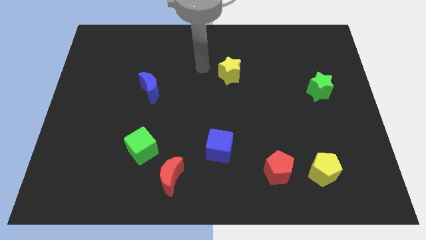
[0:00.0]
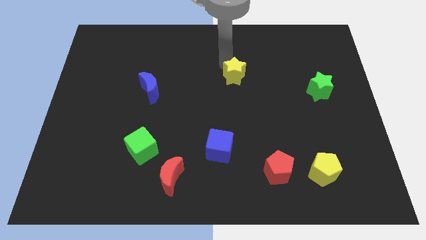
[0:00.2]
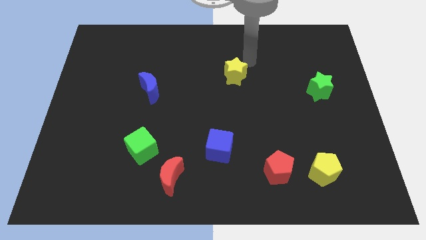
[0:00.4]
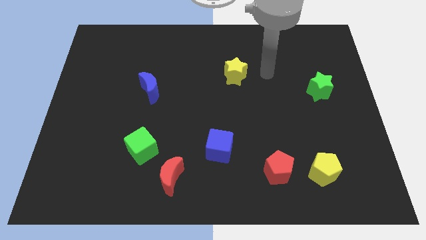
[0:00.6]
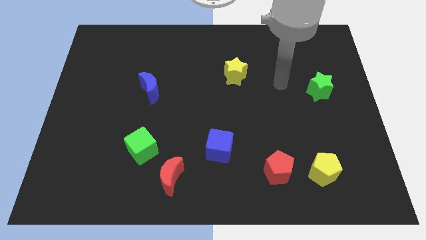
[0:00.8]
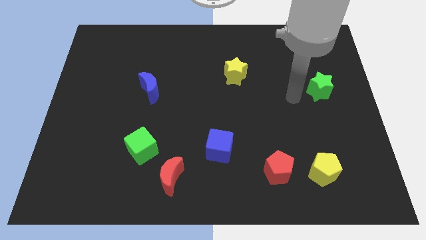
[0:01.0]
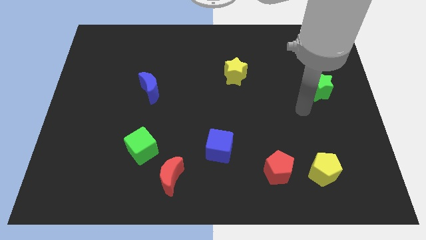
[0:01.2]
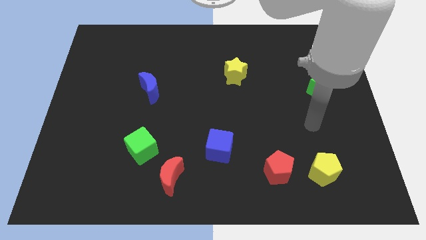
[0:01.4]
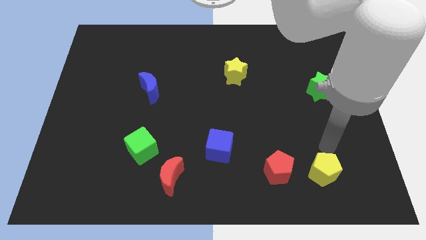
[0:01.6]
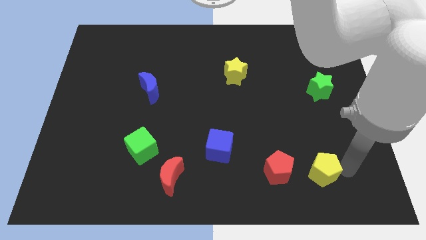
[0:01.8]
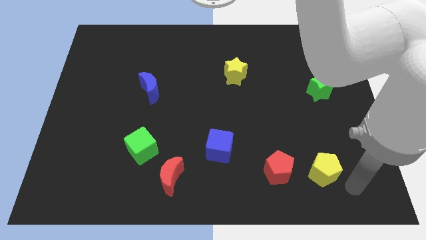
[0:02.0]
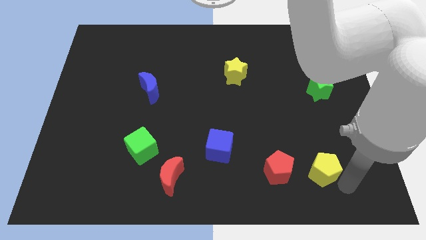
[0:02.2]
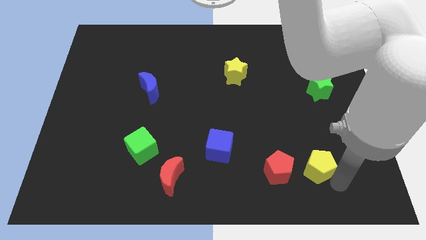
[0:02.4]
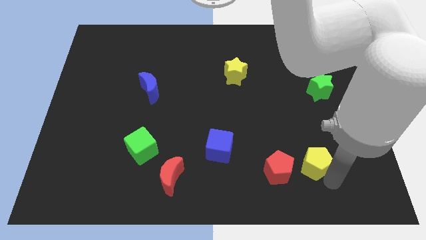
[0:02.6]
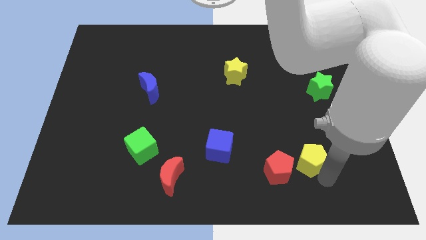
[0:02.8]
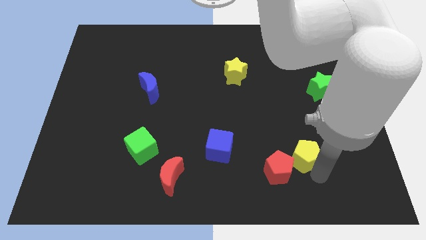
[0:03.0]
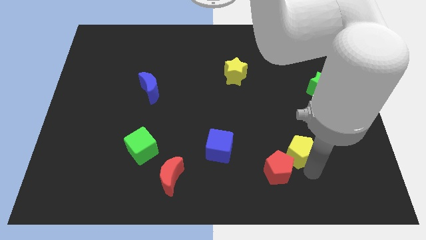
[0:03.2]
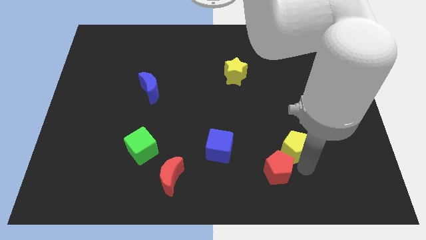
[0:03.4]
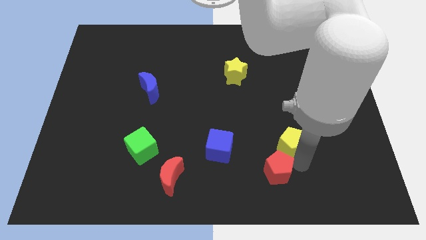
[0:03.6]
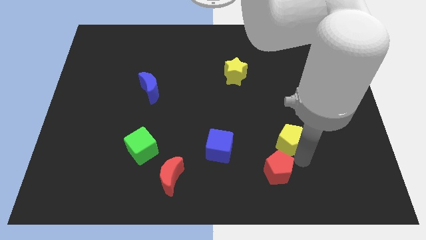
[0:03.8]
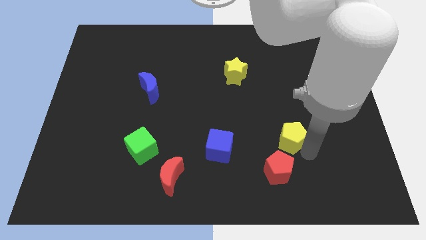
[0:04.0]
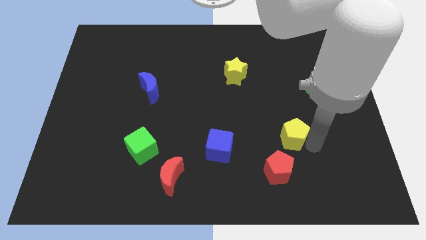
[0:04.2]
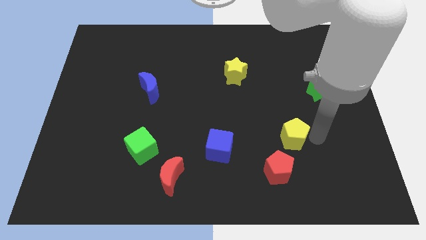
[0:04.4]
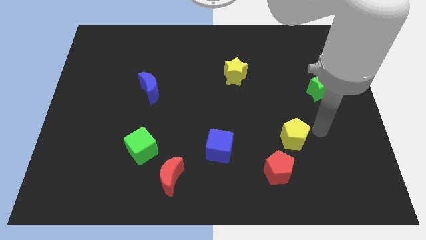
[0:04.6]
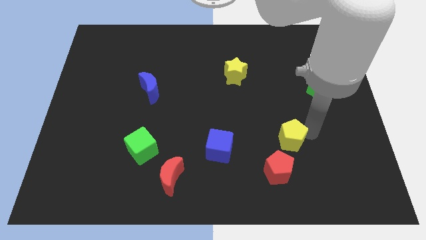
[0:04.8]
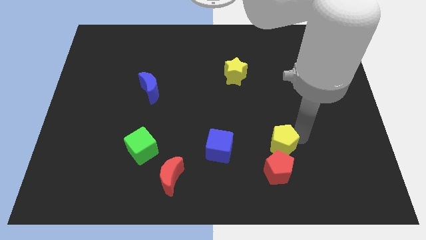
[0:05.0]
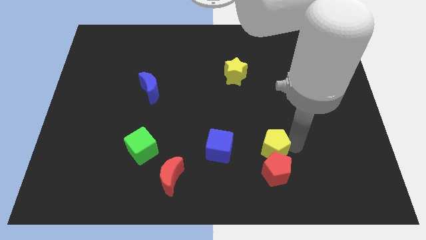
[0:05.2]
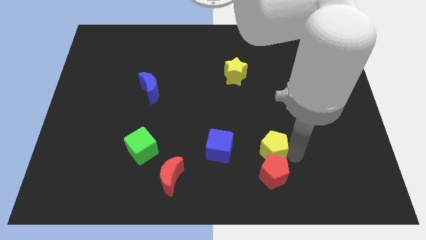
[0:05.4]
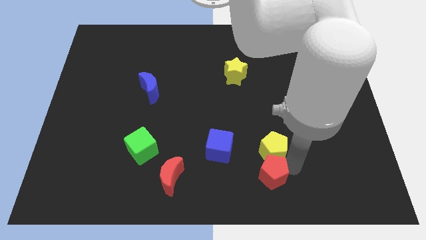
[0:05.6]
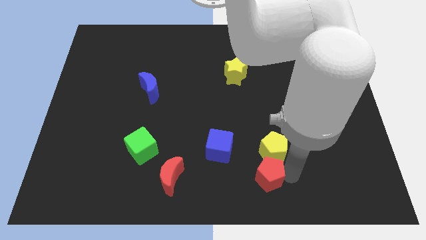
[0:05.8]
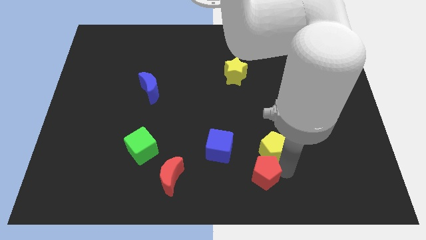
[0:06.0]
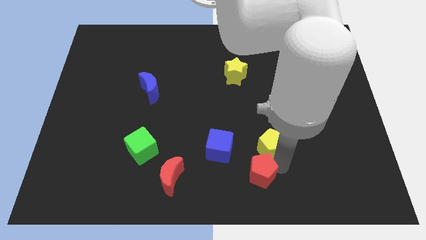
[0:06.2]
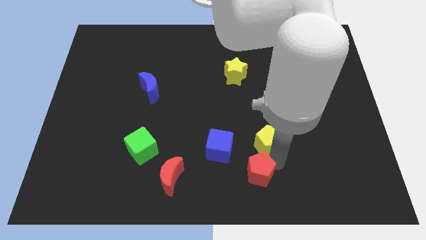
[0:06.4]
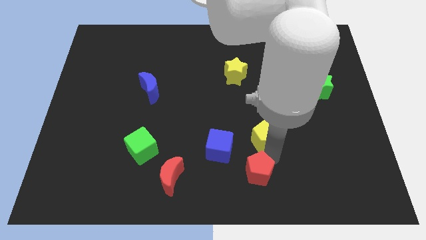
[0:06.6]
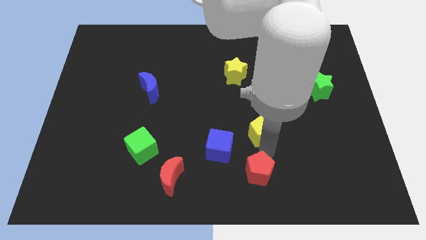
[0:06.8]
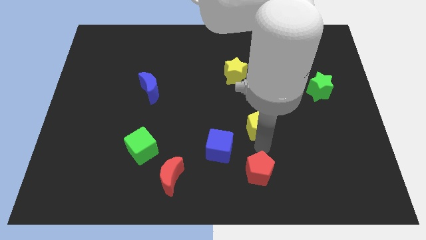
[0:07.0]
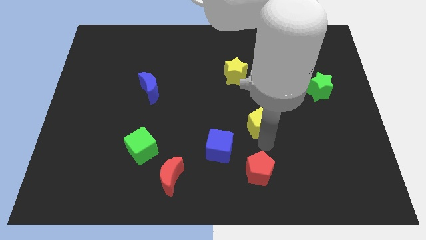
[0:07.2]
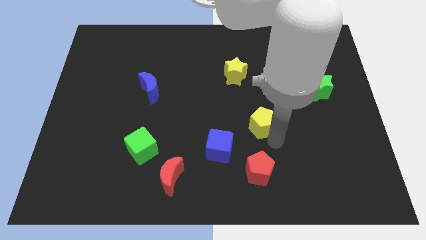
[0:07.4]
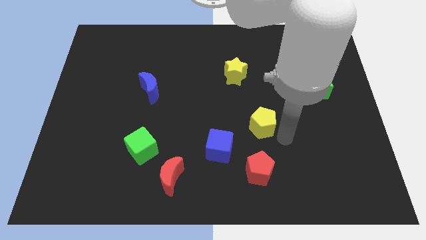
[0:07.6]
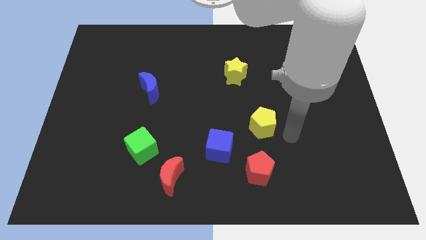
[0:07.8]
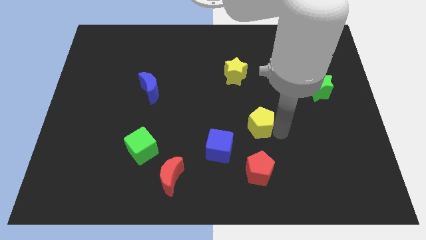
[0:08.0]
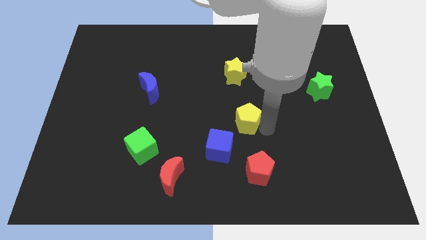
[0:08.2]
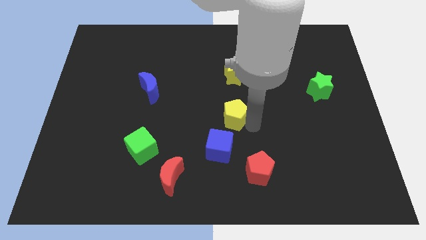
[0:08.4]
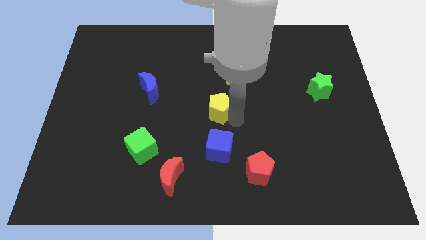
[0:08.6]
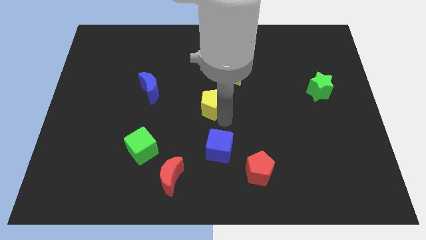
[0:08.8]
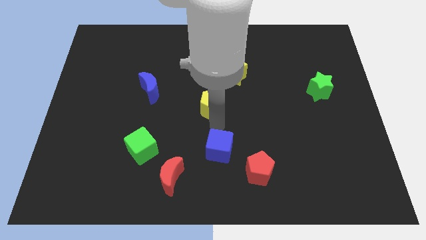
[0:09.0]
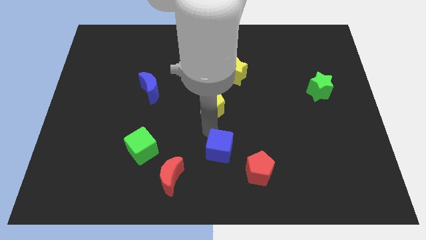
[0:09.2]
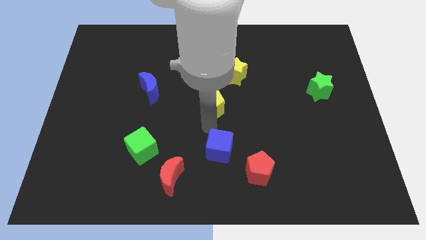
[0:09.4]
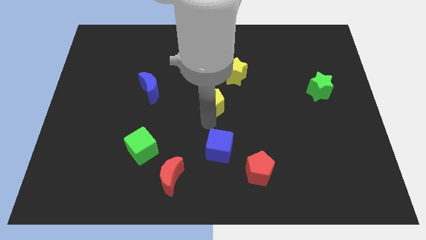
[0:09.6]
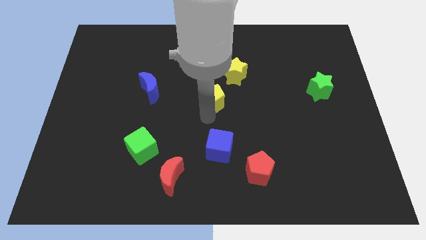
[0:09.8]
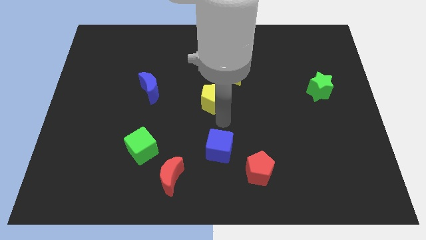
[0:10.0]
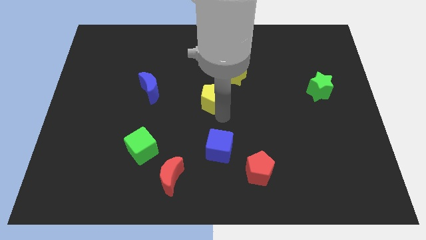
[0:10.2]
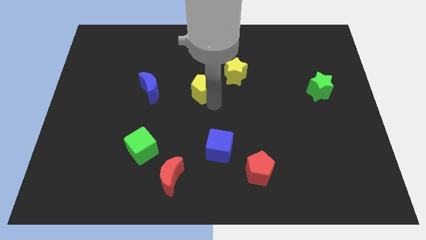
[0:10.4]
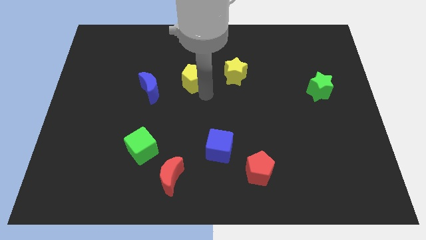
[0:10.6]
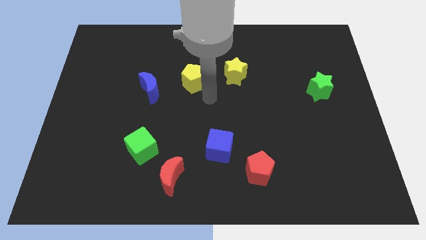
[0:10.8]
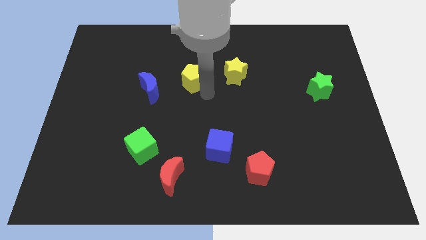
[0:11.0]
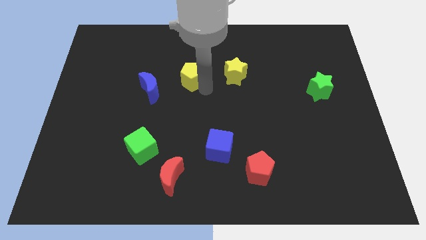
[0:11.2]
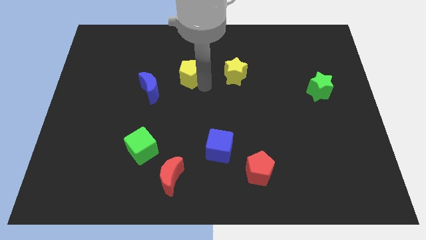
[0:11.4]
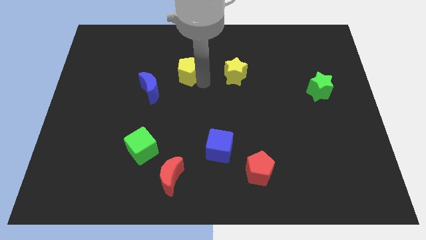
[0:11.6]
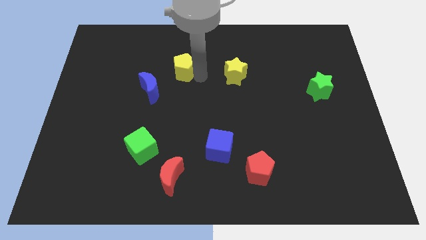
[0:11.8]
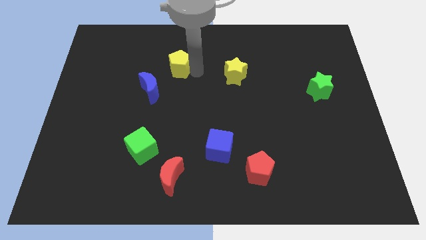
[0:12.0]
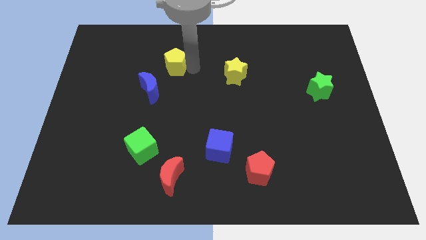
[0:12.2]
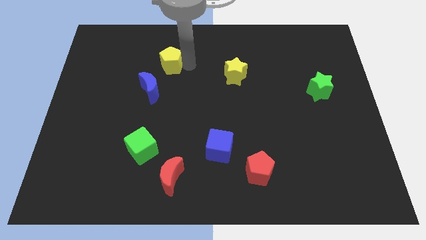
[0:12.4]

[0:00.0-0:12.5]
move the yellow pentagon to the top of the blue moon

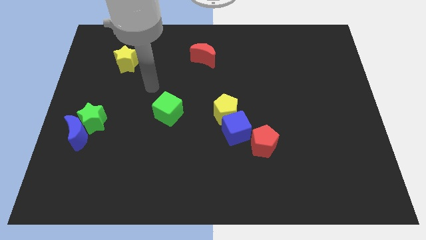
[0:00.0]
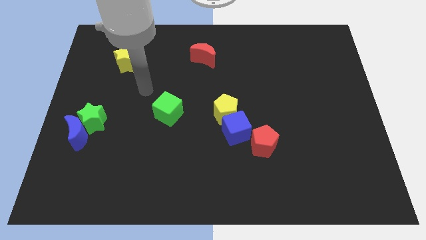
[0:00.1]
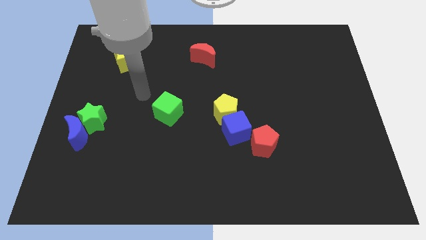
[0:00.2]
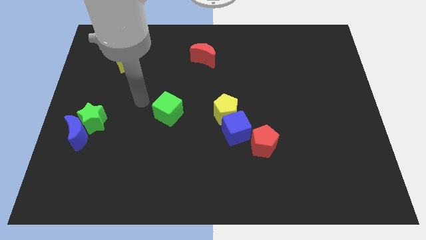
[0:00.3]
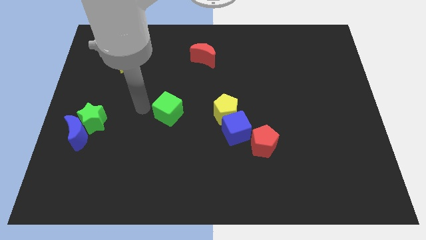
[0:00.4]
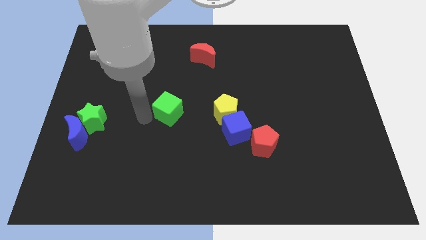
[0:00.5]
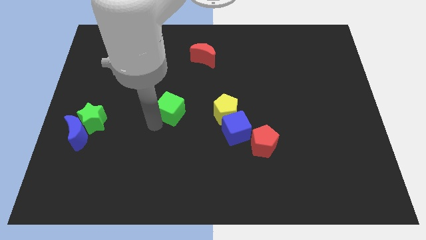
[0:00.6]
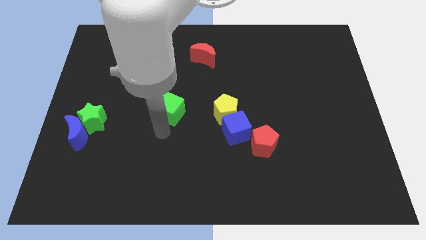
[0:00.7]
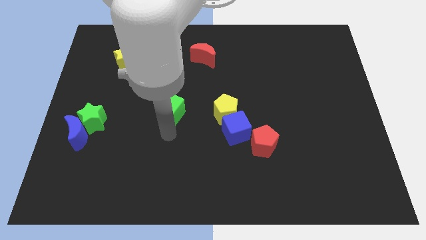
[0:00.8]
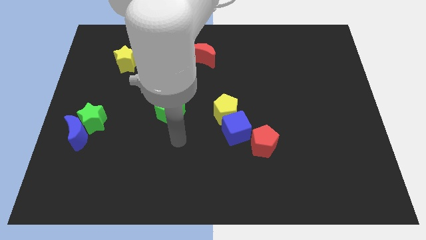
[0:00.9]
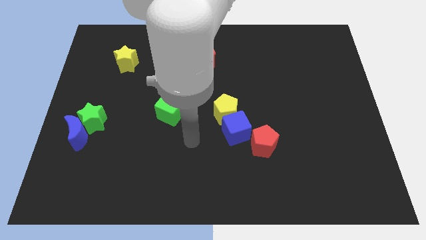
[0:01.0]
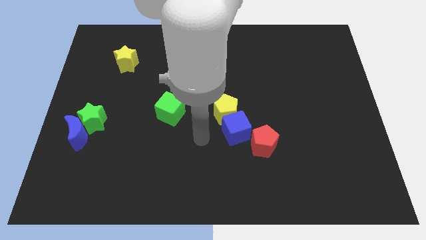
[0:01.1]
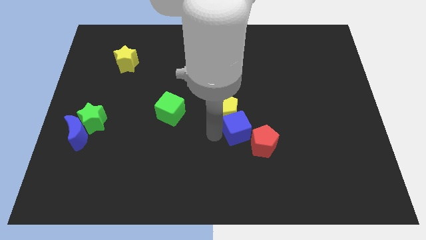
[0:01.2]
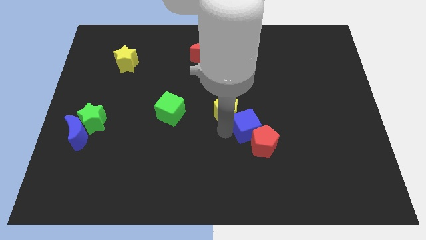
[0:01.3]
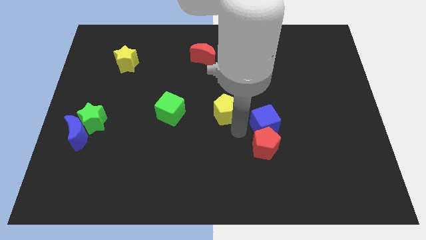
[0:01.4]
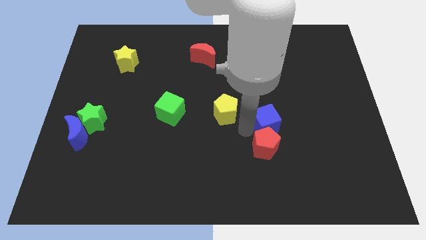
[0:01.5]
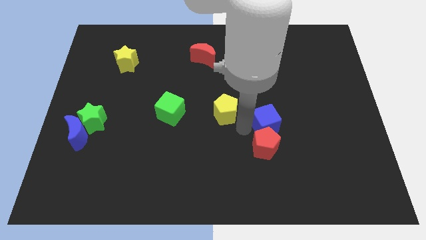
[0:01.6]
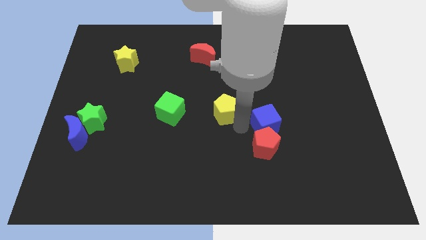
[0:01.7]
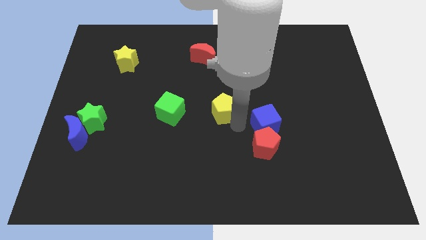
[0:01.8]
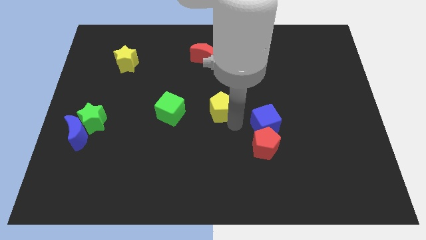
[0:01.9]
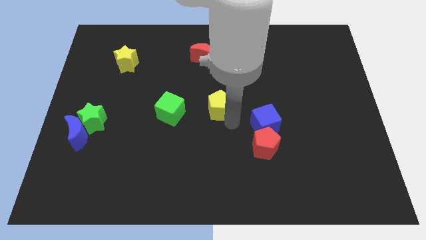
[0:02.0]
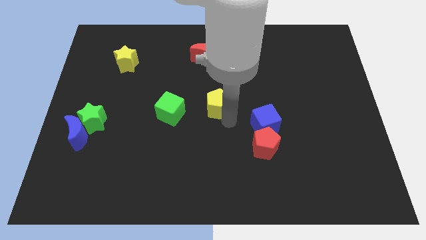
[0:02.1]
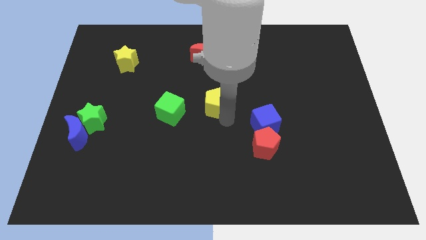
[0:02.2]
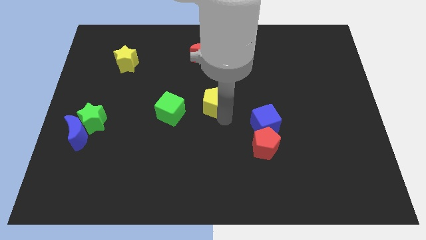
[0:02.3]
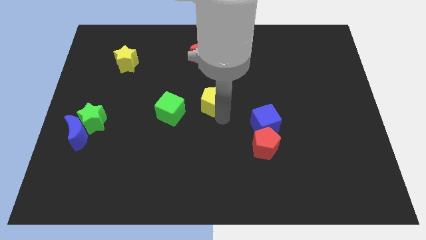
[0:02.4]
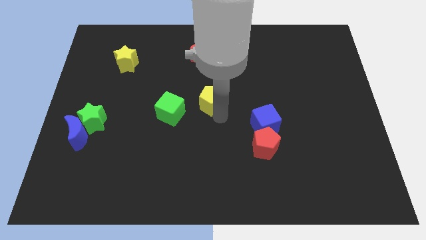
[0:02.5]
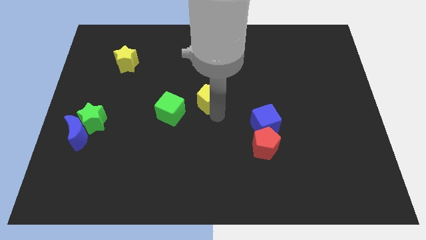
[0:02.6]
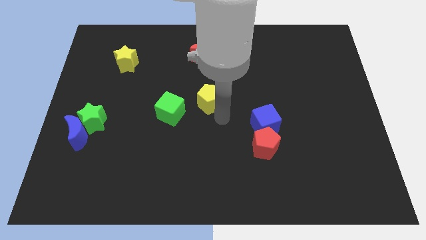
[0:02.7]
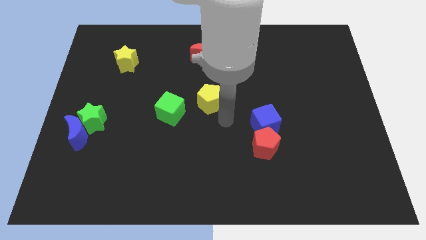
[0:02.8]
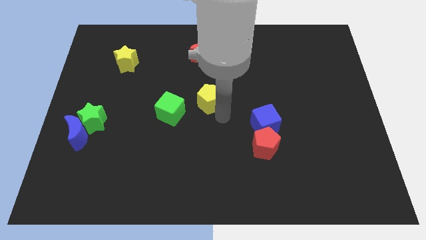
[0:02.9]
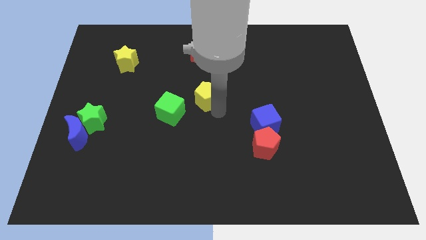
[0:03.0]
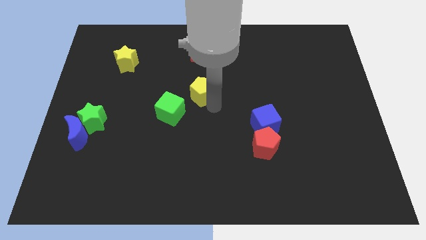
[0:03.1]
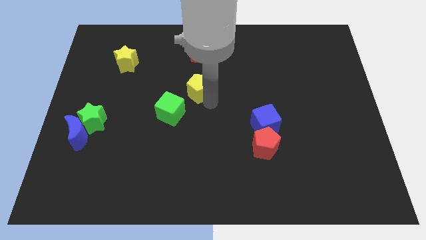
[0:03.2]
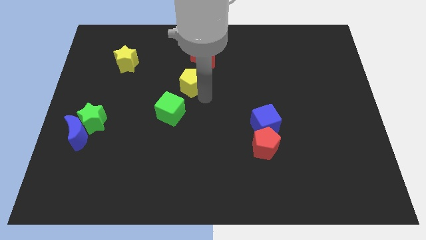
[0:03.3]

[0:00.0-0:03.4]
move the yellow pentagon to the bottom left of the red moon
